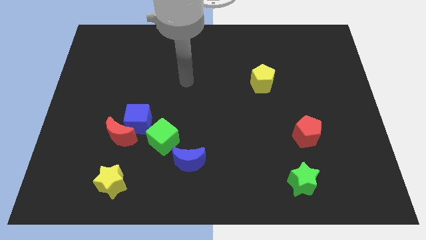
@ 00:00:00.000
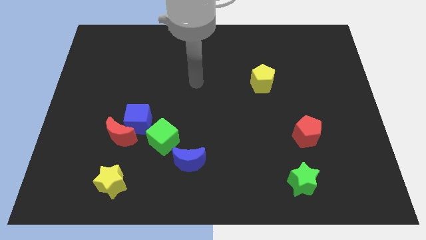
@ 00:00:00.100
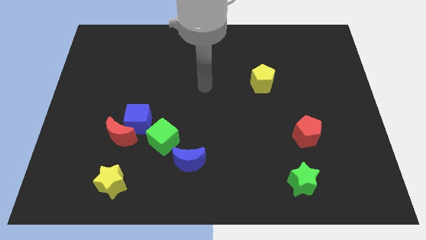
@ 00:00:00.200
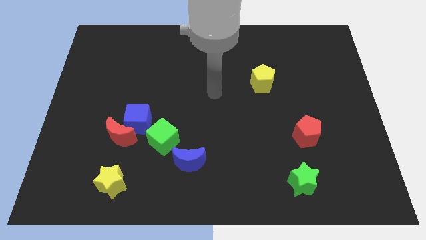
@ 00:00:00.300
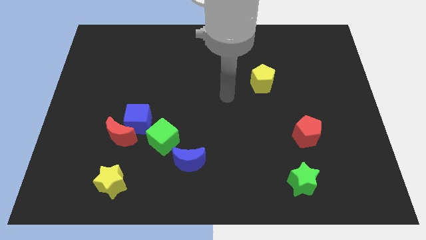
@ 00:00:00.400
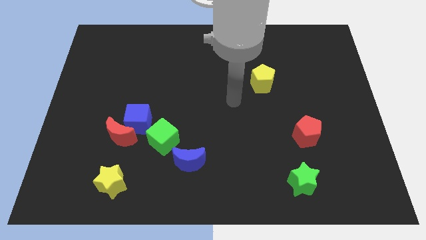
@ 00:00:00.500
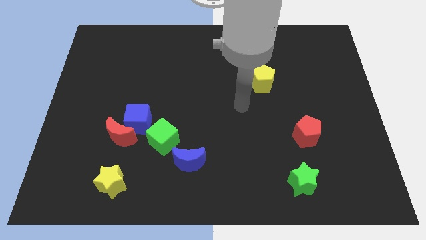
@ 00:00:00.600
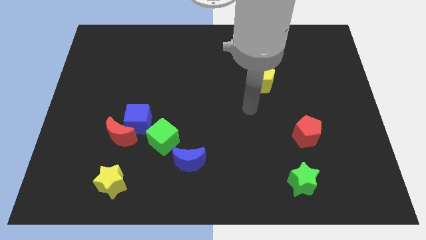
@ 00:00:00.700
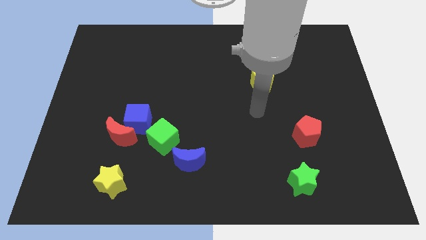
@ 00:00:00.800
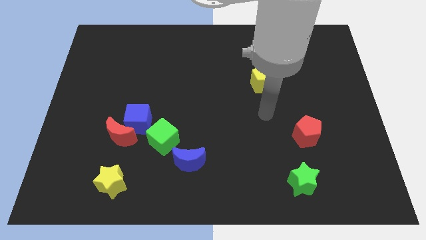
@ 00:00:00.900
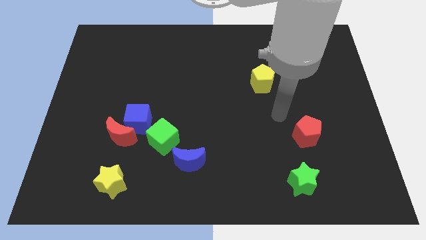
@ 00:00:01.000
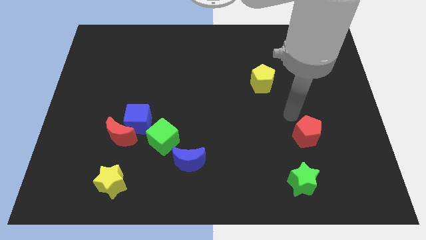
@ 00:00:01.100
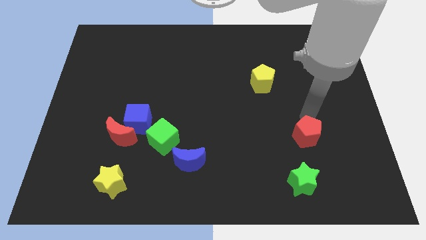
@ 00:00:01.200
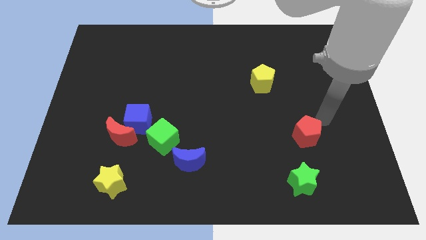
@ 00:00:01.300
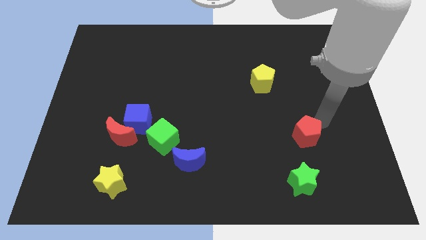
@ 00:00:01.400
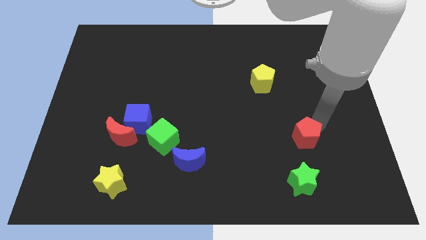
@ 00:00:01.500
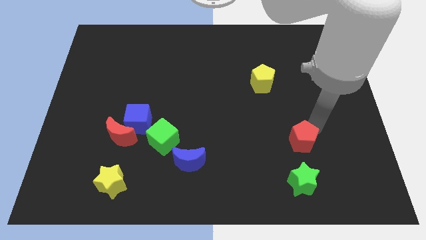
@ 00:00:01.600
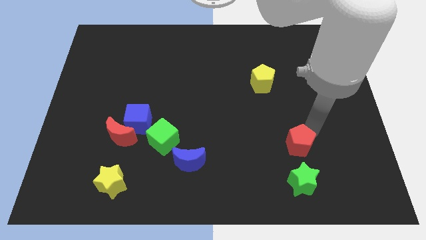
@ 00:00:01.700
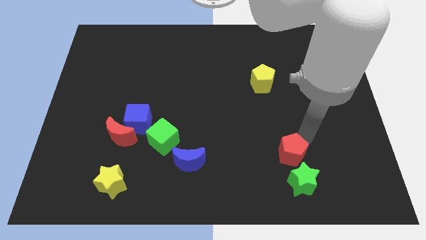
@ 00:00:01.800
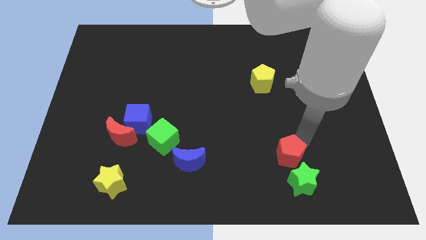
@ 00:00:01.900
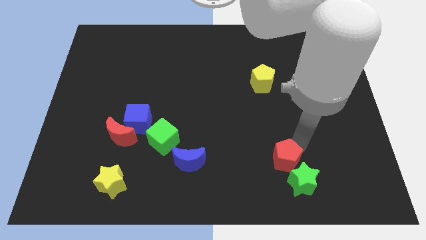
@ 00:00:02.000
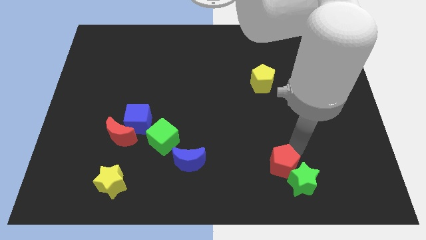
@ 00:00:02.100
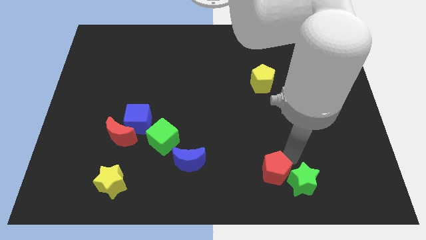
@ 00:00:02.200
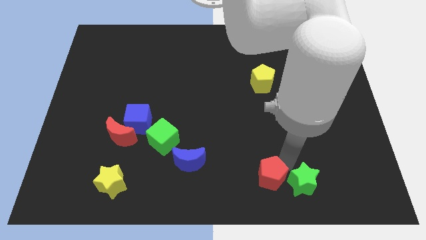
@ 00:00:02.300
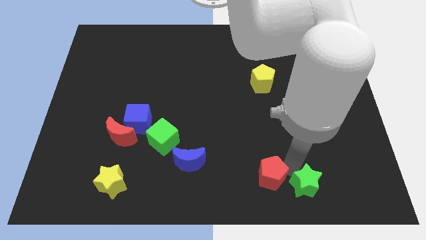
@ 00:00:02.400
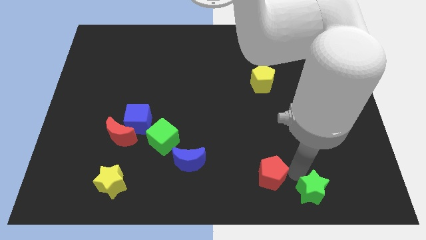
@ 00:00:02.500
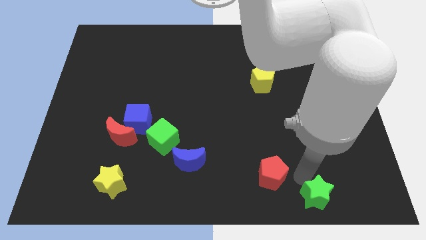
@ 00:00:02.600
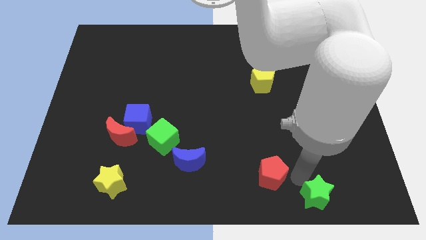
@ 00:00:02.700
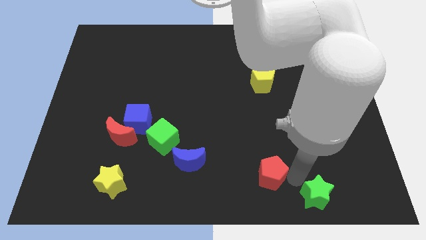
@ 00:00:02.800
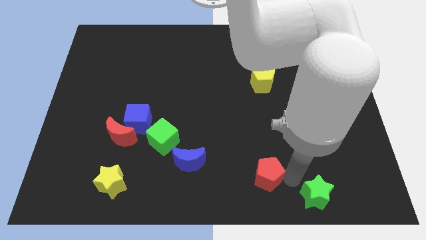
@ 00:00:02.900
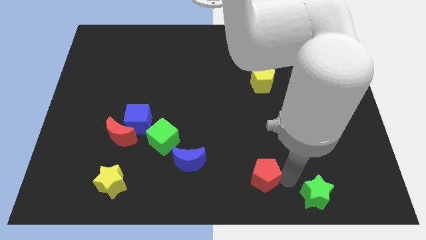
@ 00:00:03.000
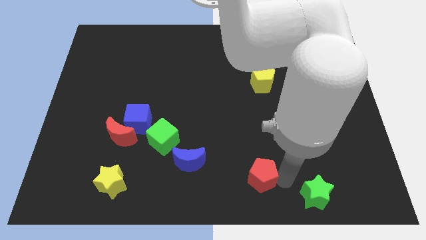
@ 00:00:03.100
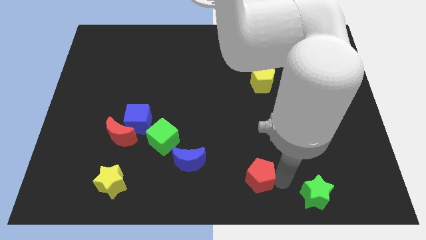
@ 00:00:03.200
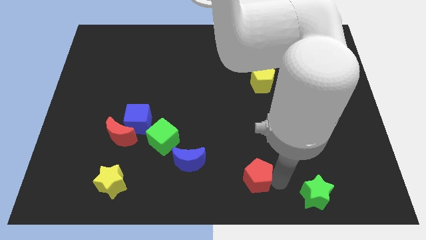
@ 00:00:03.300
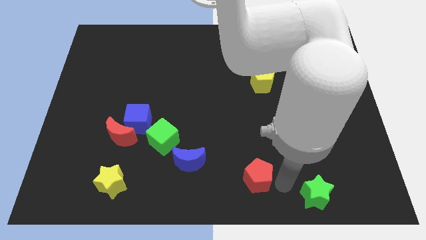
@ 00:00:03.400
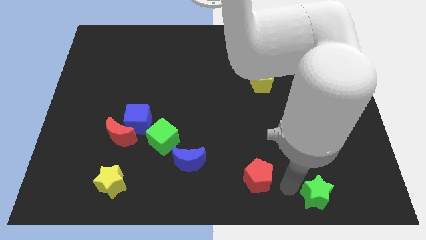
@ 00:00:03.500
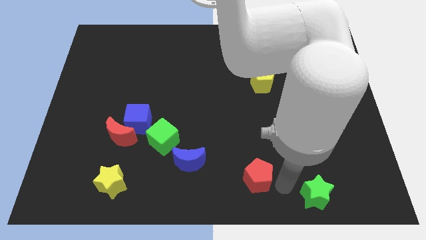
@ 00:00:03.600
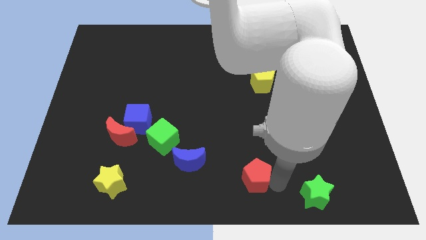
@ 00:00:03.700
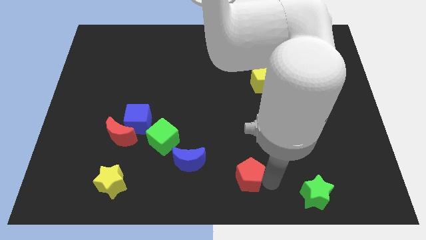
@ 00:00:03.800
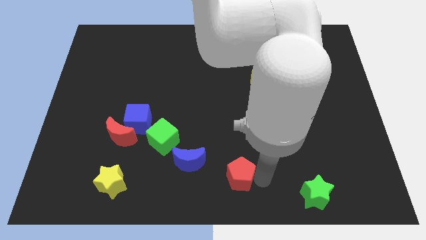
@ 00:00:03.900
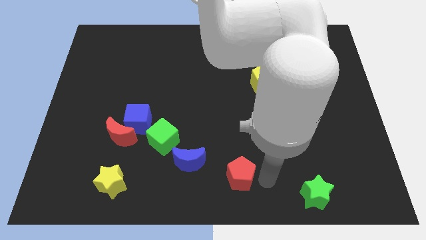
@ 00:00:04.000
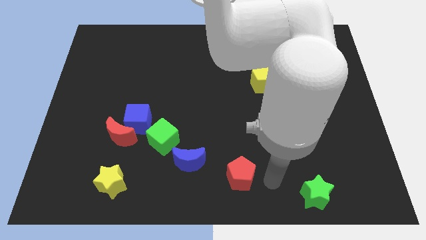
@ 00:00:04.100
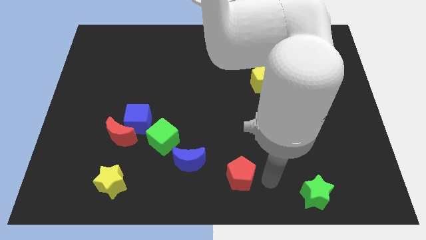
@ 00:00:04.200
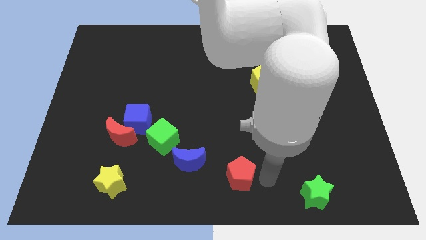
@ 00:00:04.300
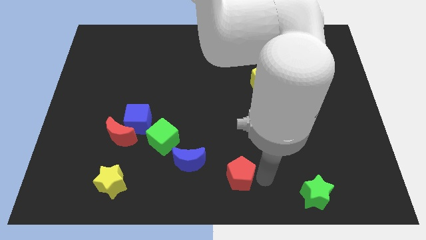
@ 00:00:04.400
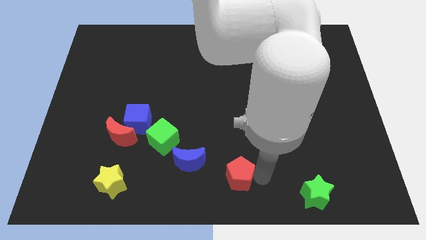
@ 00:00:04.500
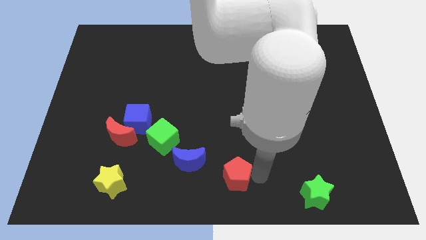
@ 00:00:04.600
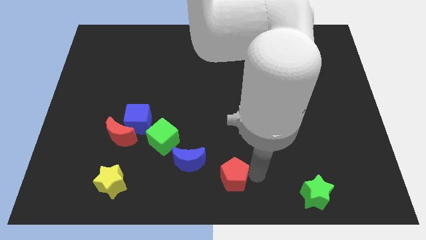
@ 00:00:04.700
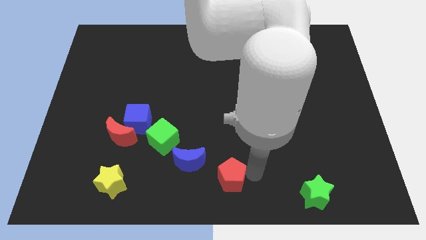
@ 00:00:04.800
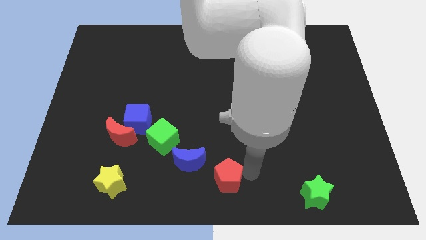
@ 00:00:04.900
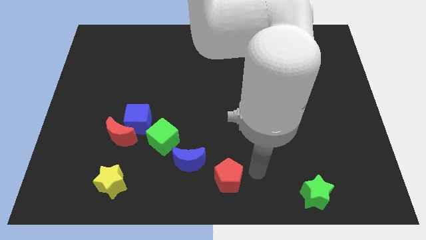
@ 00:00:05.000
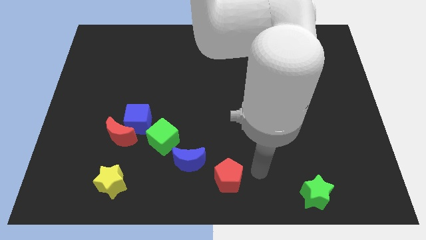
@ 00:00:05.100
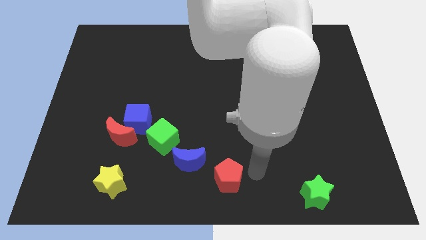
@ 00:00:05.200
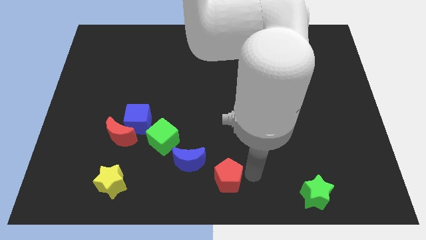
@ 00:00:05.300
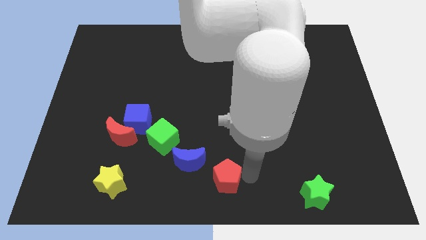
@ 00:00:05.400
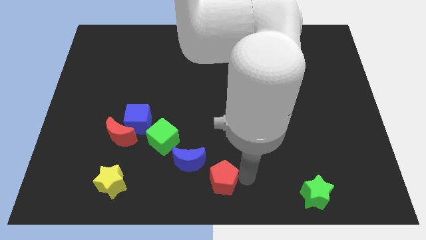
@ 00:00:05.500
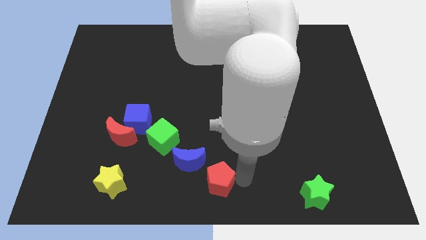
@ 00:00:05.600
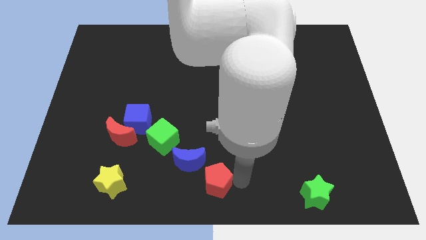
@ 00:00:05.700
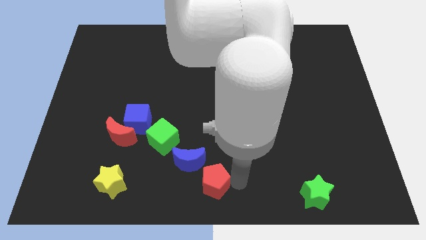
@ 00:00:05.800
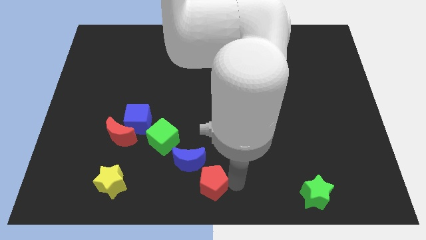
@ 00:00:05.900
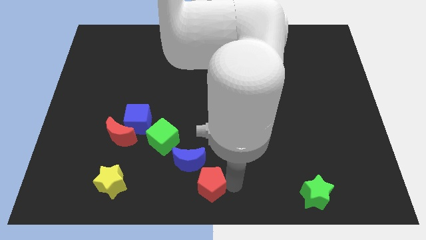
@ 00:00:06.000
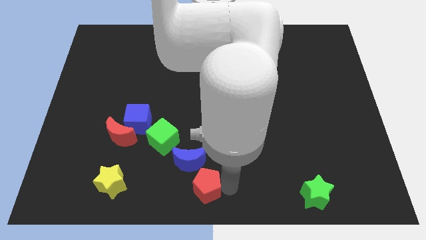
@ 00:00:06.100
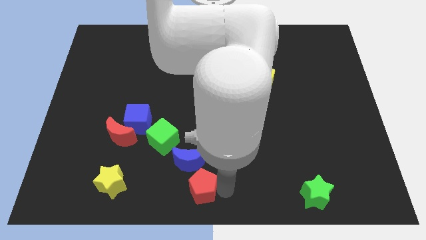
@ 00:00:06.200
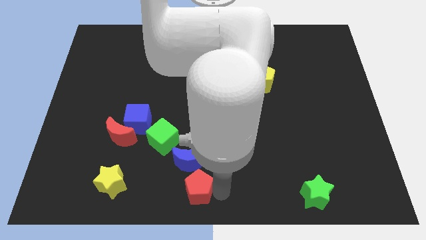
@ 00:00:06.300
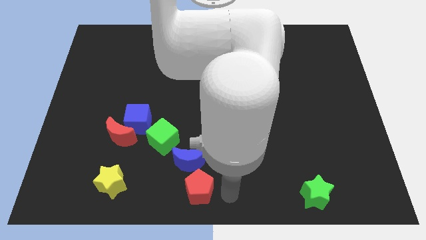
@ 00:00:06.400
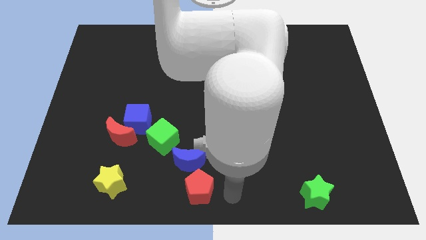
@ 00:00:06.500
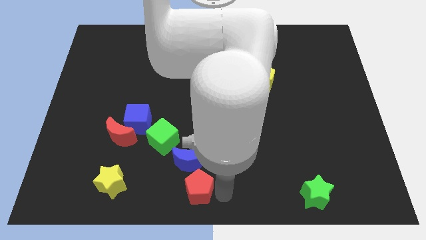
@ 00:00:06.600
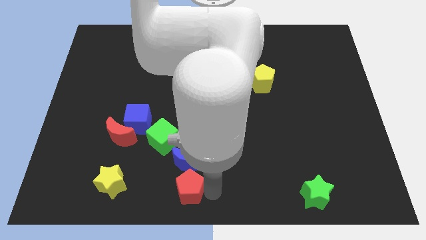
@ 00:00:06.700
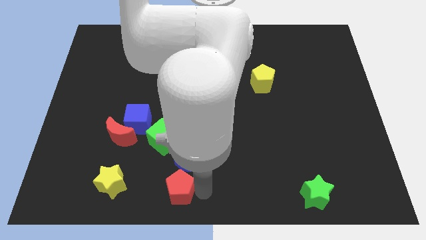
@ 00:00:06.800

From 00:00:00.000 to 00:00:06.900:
put the red pentagon to the bottom side of the green cube
